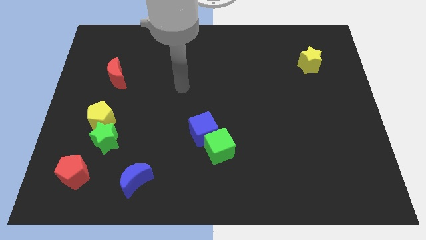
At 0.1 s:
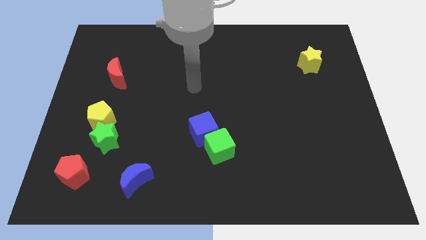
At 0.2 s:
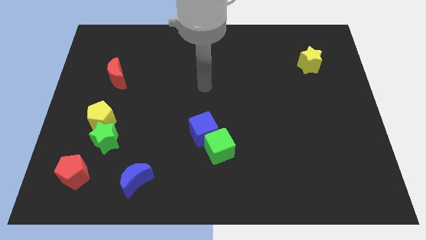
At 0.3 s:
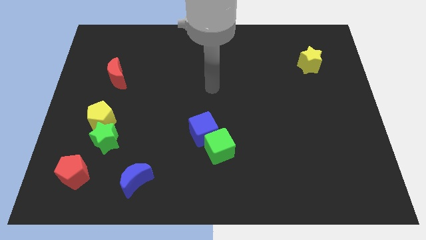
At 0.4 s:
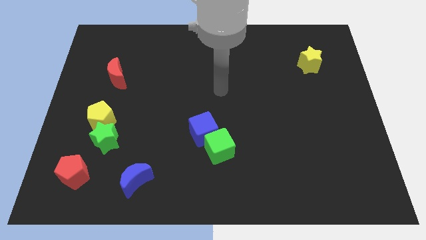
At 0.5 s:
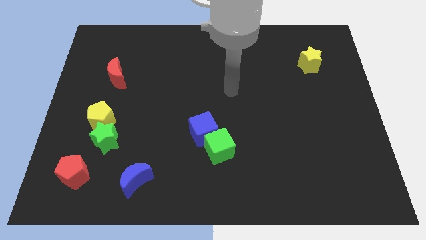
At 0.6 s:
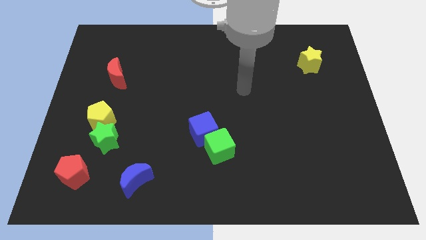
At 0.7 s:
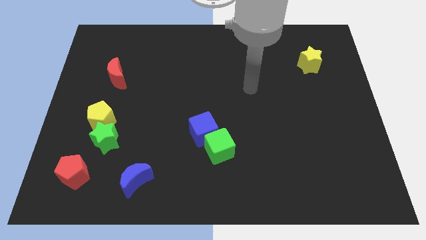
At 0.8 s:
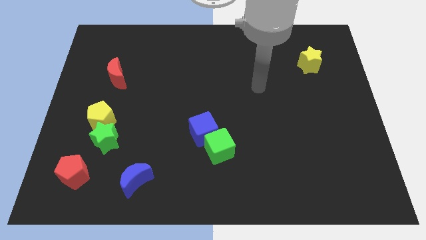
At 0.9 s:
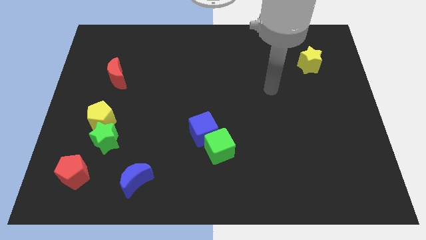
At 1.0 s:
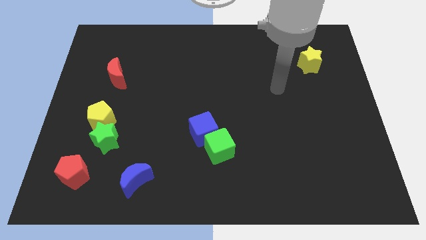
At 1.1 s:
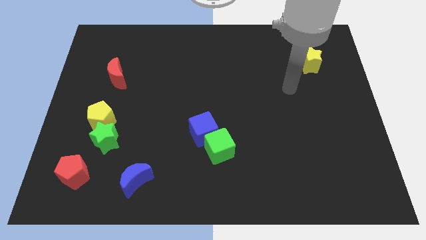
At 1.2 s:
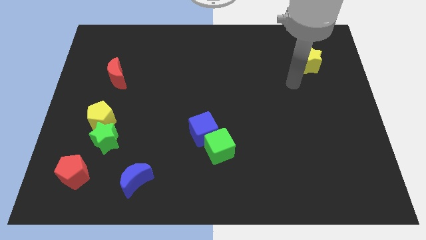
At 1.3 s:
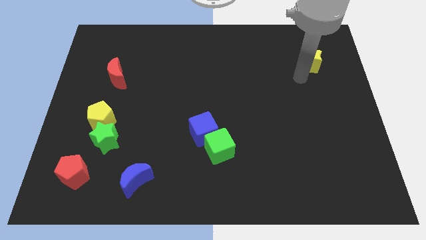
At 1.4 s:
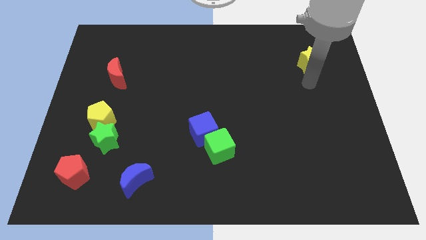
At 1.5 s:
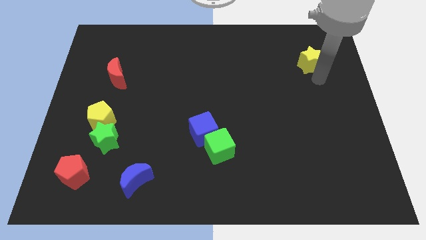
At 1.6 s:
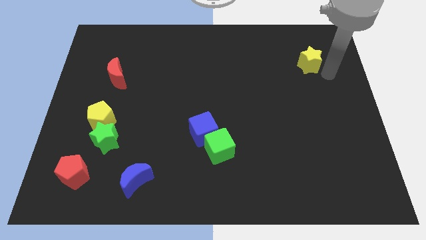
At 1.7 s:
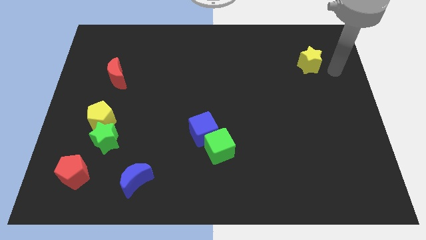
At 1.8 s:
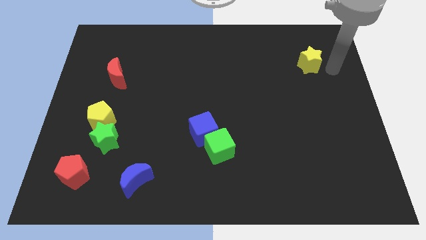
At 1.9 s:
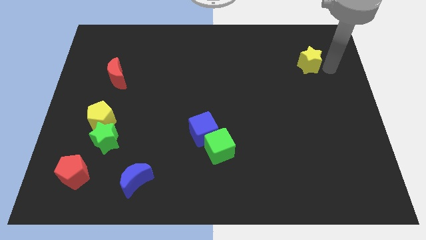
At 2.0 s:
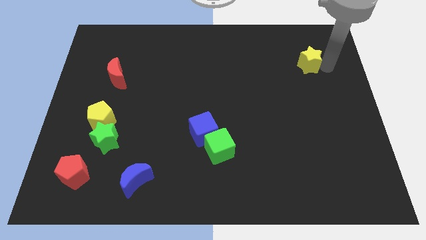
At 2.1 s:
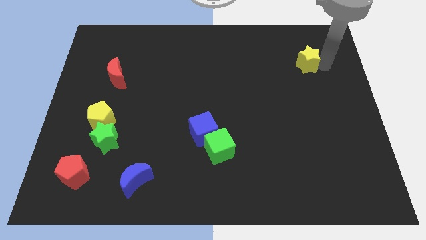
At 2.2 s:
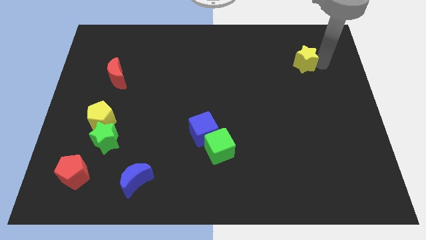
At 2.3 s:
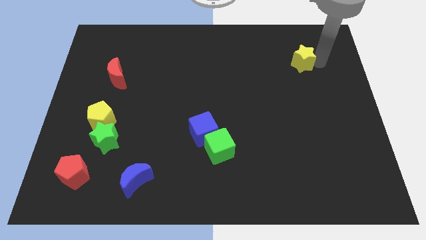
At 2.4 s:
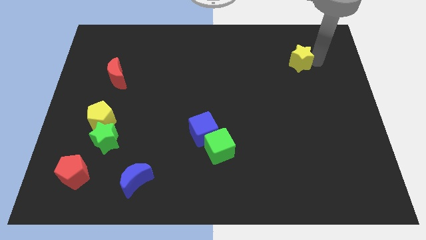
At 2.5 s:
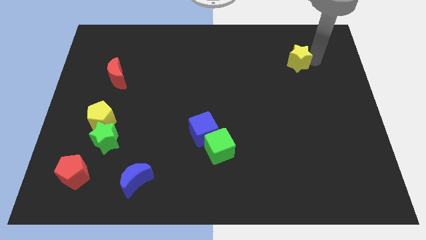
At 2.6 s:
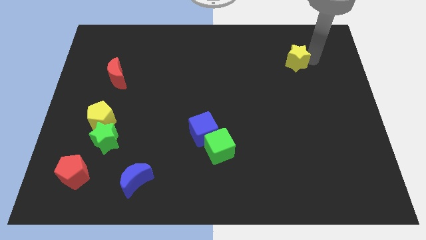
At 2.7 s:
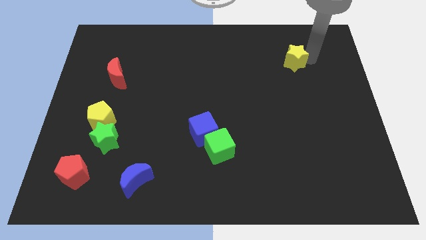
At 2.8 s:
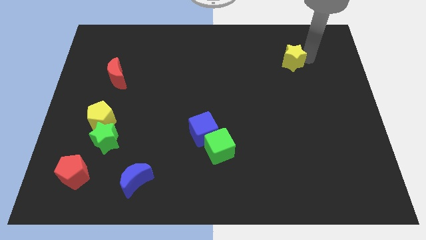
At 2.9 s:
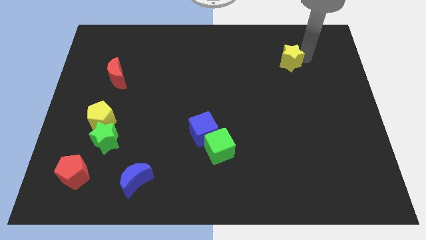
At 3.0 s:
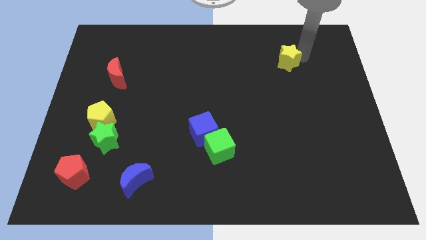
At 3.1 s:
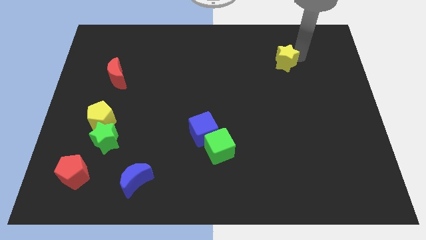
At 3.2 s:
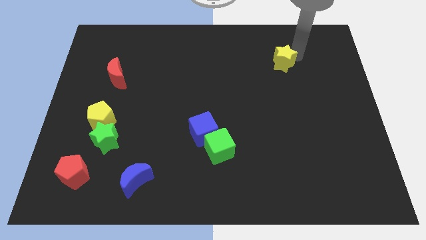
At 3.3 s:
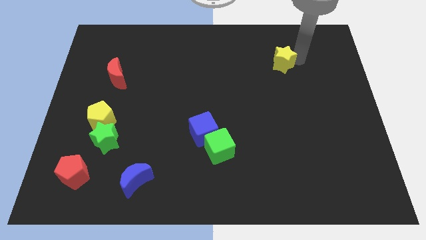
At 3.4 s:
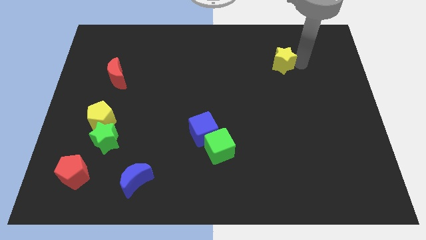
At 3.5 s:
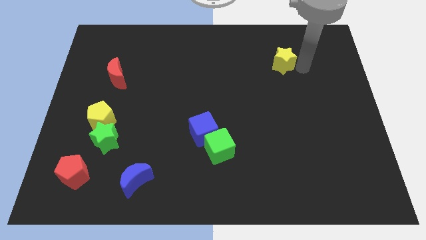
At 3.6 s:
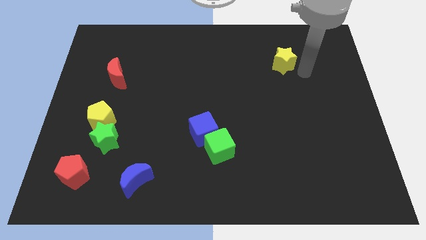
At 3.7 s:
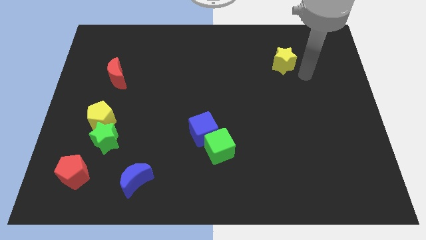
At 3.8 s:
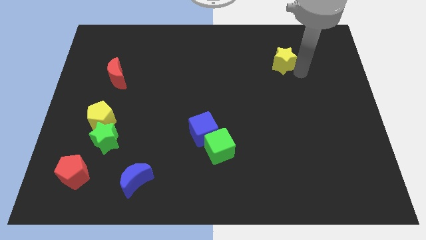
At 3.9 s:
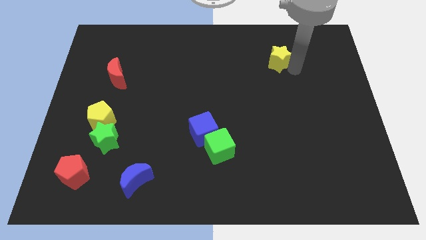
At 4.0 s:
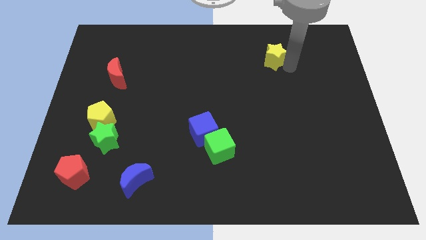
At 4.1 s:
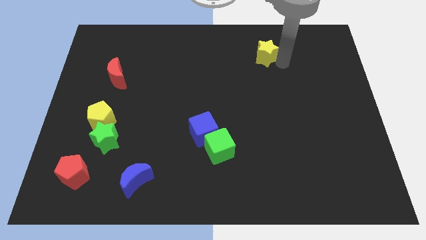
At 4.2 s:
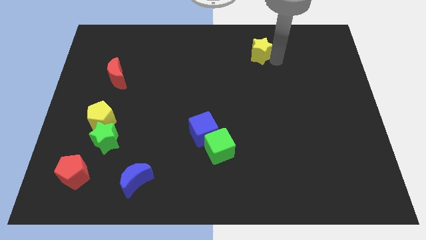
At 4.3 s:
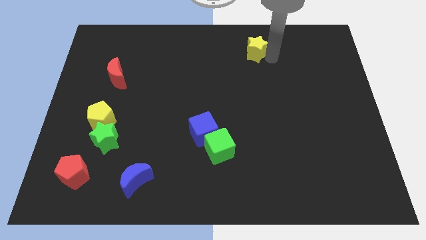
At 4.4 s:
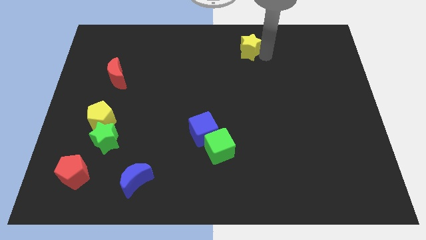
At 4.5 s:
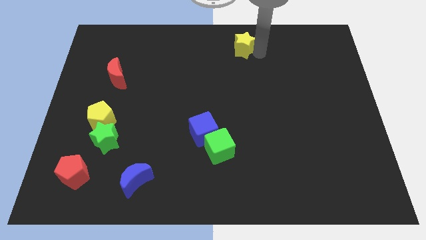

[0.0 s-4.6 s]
put the yellow star to the towards your base

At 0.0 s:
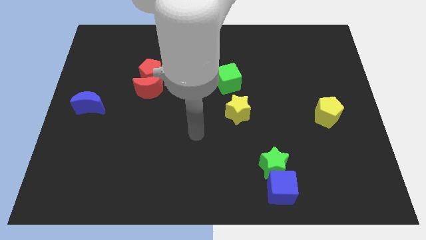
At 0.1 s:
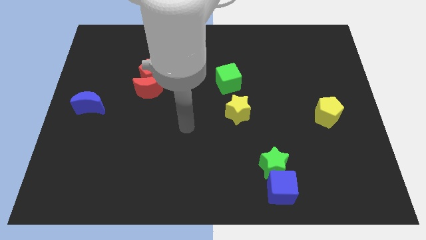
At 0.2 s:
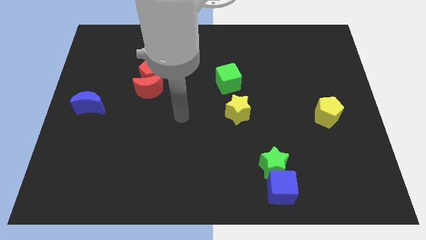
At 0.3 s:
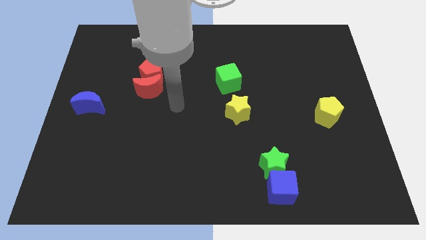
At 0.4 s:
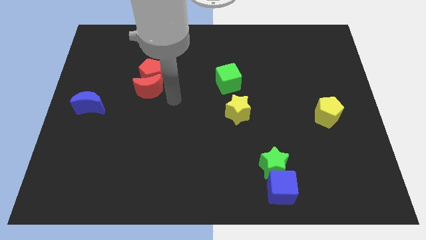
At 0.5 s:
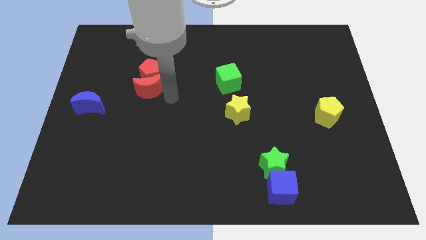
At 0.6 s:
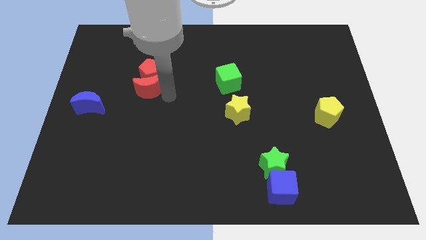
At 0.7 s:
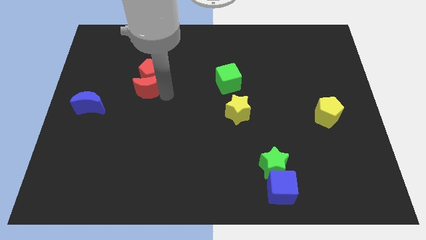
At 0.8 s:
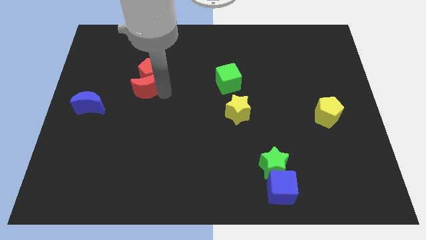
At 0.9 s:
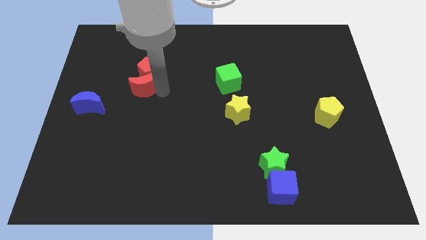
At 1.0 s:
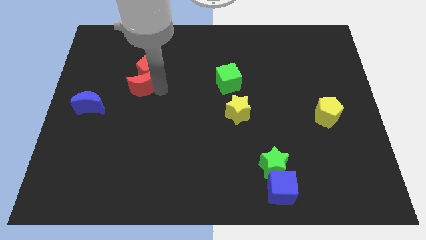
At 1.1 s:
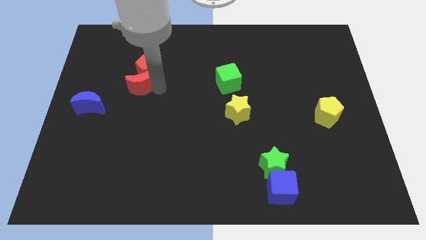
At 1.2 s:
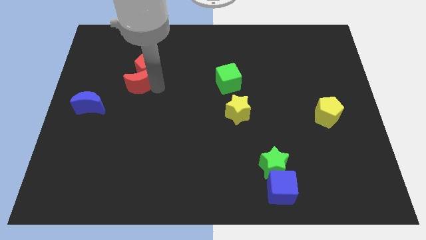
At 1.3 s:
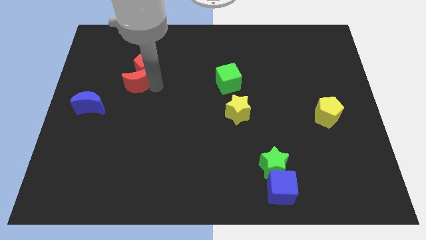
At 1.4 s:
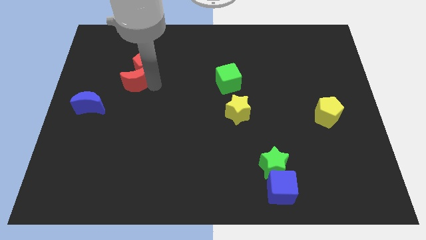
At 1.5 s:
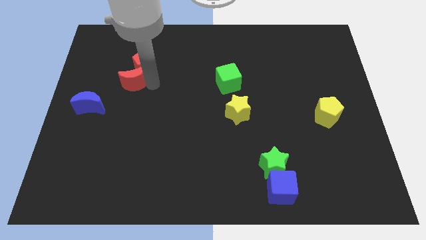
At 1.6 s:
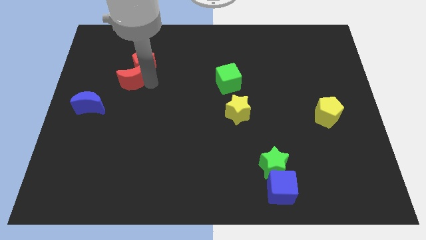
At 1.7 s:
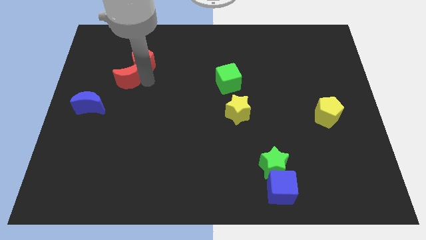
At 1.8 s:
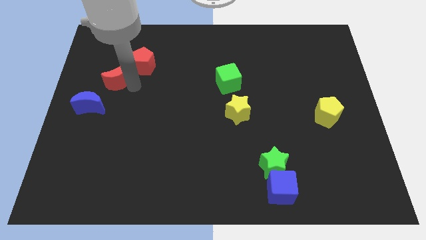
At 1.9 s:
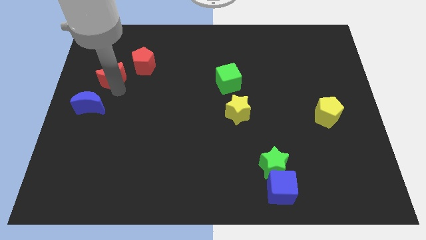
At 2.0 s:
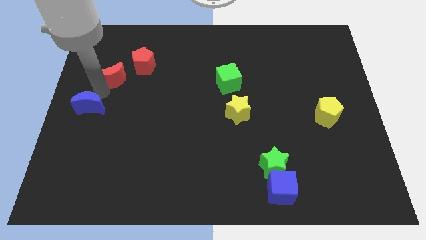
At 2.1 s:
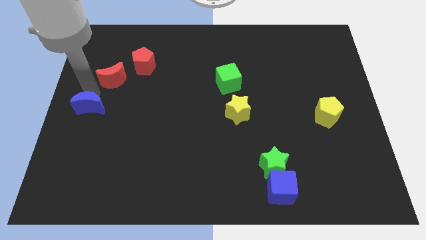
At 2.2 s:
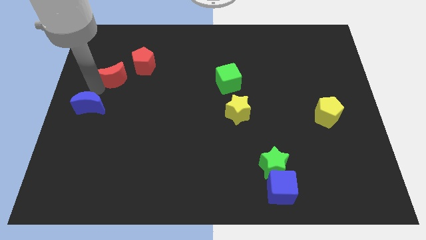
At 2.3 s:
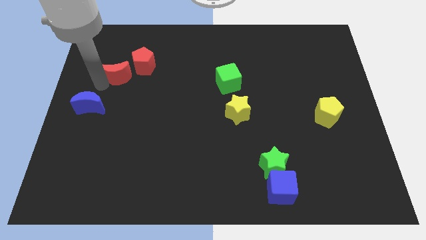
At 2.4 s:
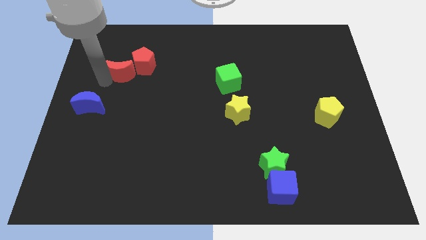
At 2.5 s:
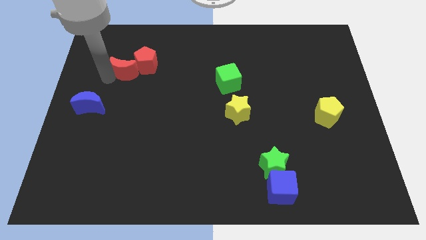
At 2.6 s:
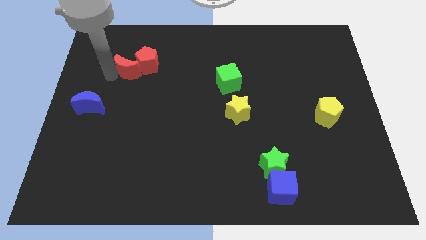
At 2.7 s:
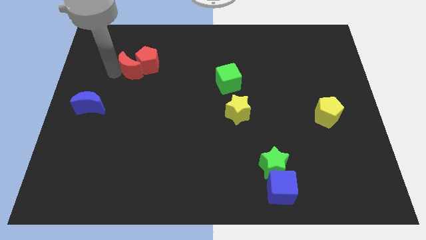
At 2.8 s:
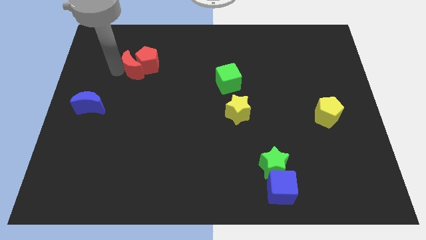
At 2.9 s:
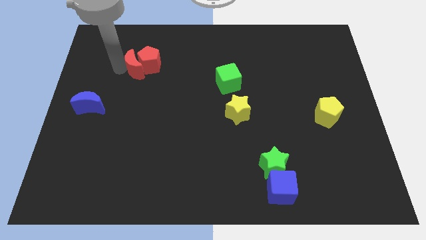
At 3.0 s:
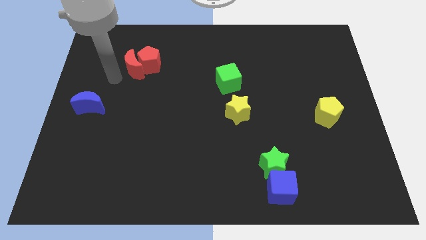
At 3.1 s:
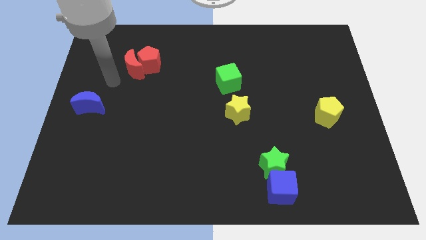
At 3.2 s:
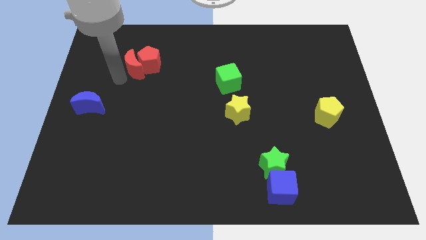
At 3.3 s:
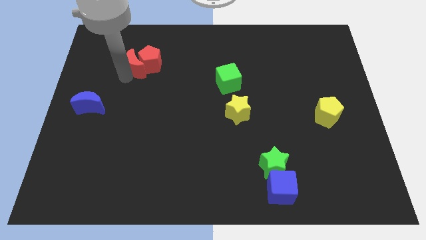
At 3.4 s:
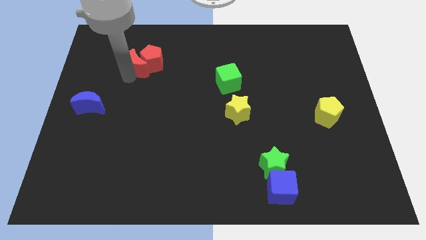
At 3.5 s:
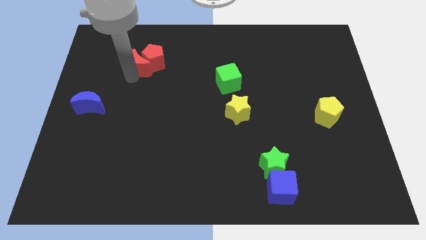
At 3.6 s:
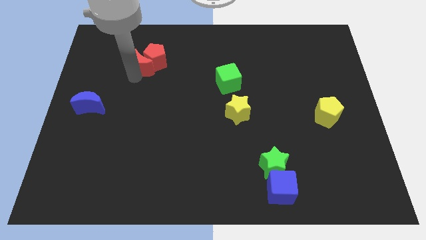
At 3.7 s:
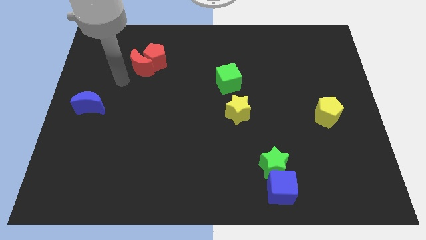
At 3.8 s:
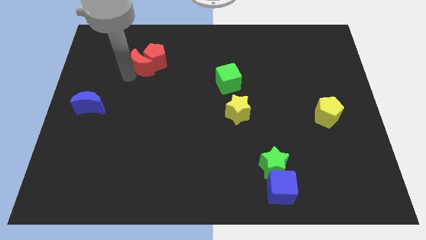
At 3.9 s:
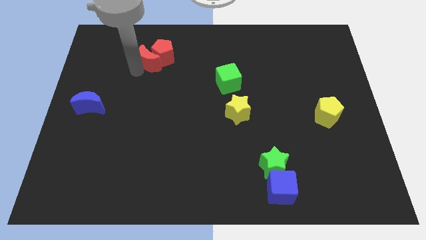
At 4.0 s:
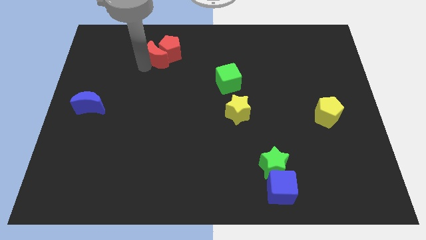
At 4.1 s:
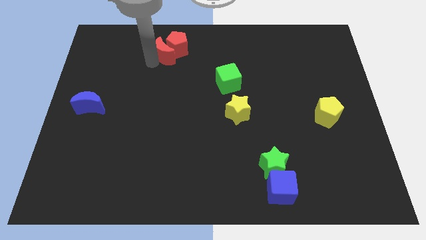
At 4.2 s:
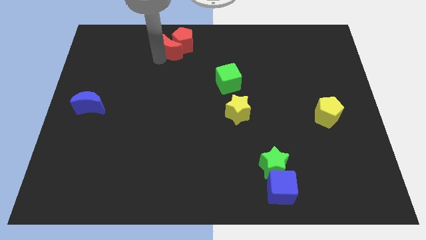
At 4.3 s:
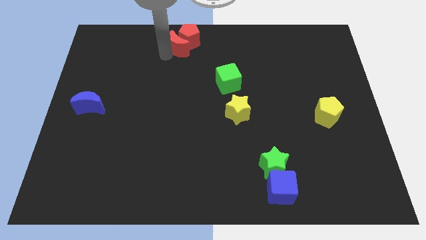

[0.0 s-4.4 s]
slide the red moon to the top
